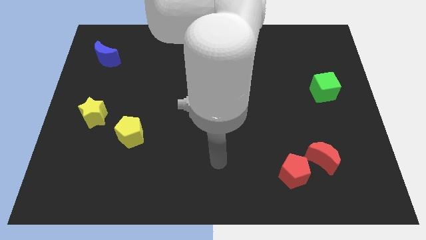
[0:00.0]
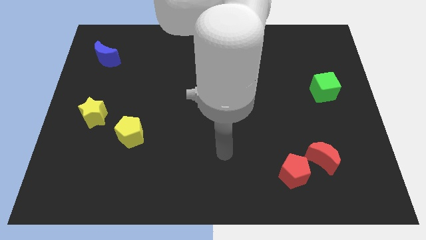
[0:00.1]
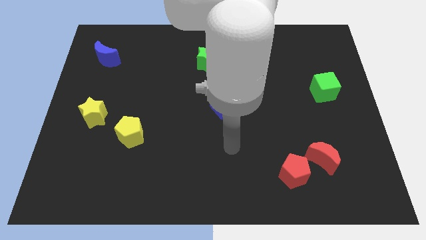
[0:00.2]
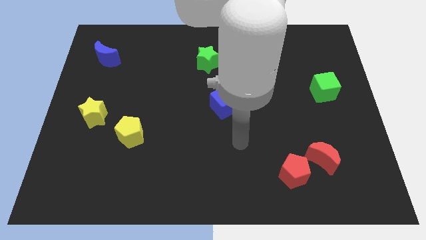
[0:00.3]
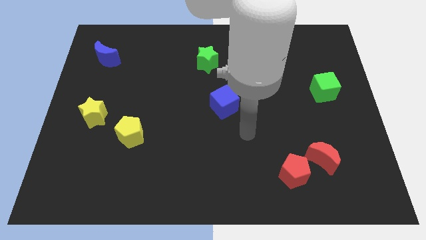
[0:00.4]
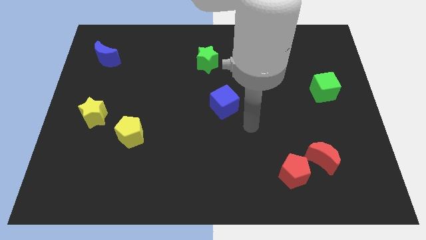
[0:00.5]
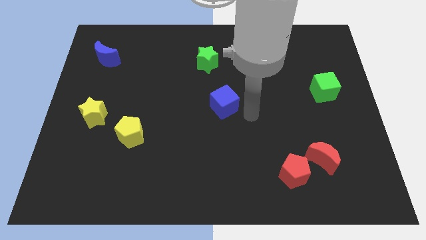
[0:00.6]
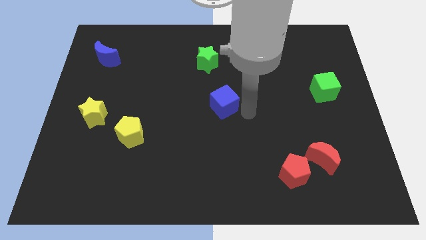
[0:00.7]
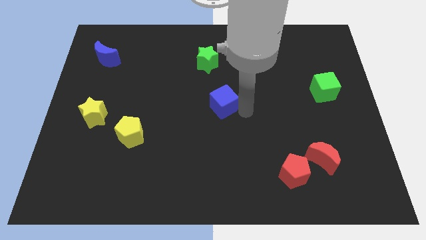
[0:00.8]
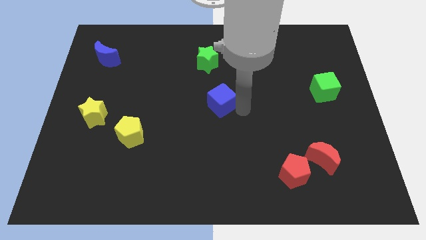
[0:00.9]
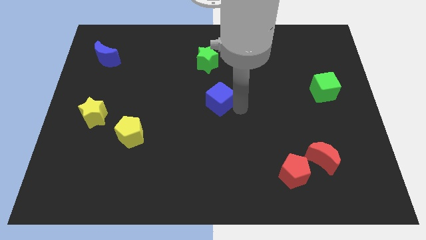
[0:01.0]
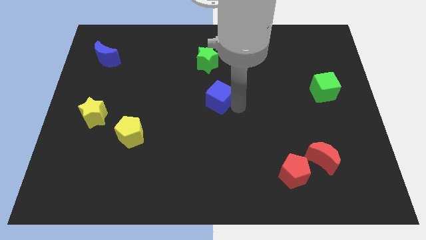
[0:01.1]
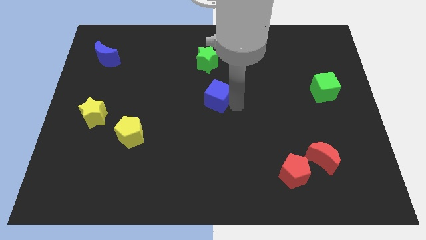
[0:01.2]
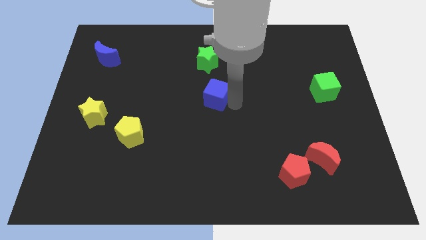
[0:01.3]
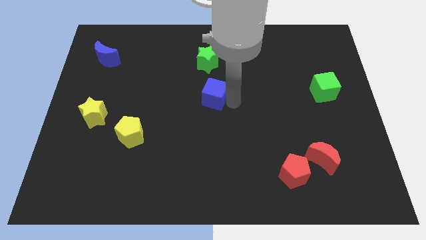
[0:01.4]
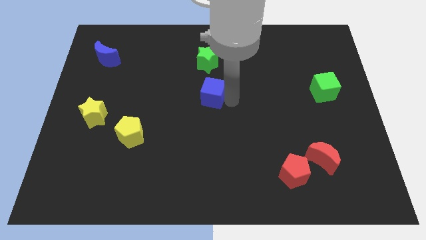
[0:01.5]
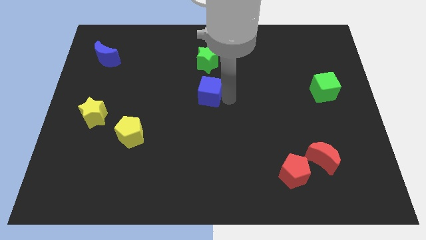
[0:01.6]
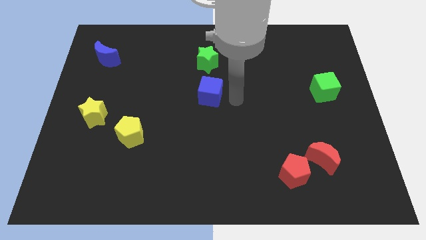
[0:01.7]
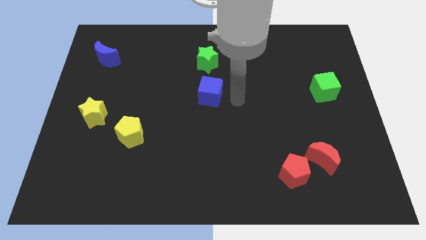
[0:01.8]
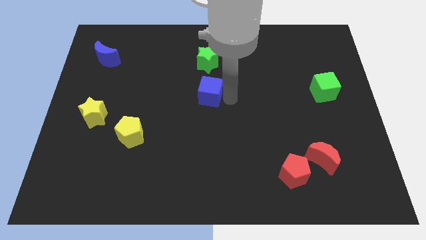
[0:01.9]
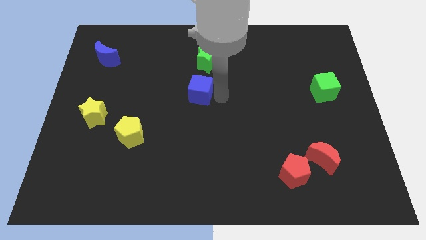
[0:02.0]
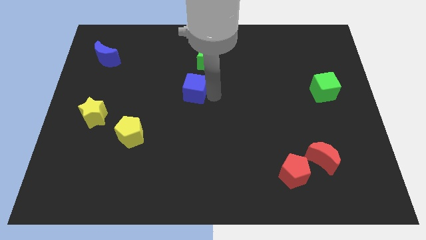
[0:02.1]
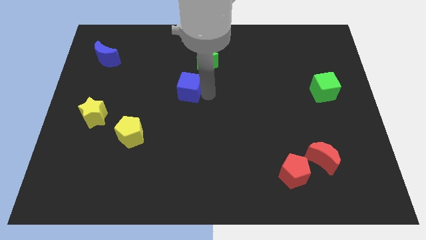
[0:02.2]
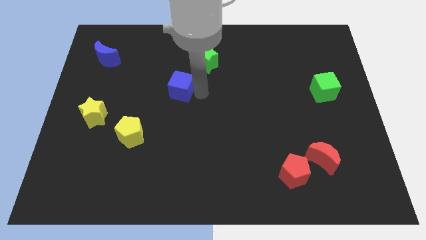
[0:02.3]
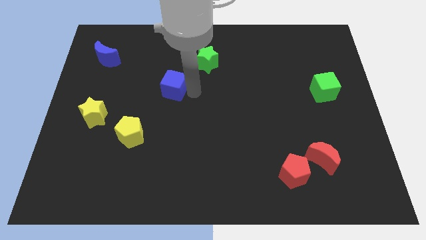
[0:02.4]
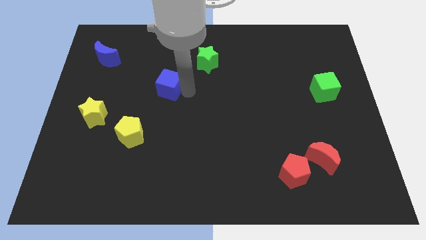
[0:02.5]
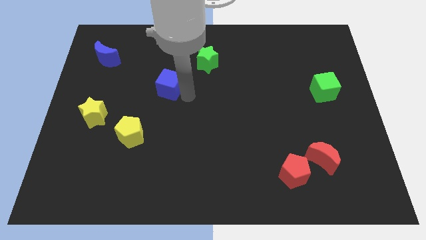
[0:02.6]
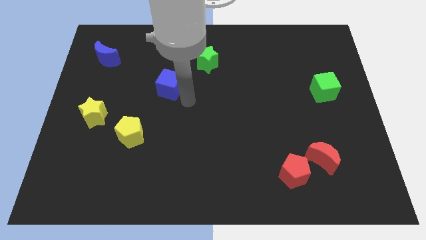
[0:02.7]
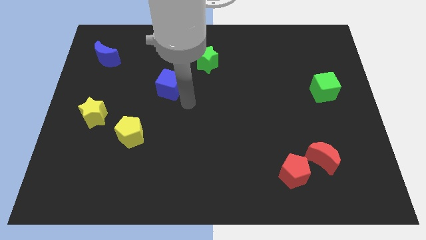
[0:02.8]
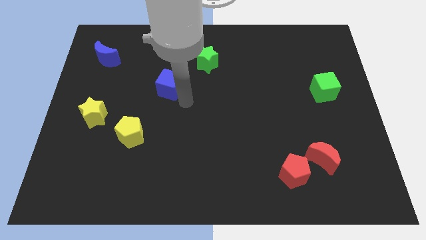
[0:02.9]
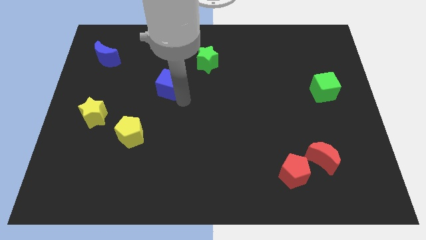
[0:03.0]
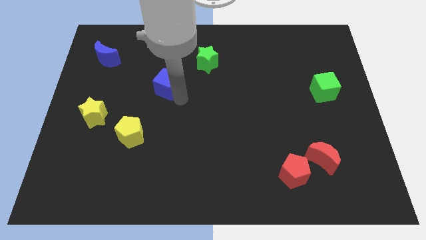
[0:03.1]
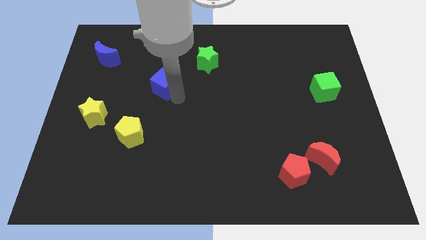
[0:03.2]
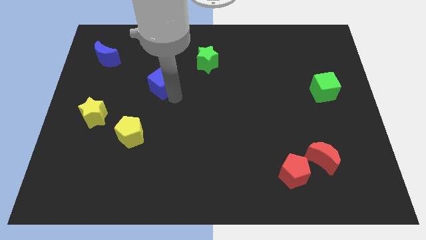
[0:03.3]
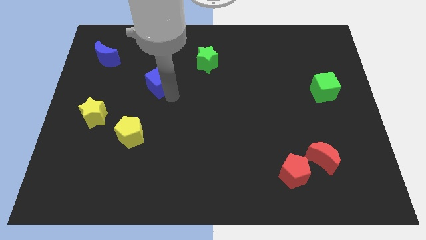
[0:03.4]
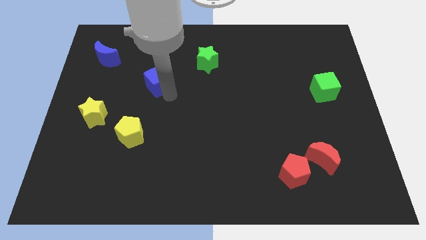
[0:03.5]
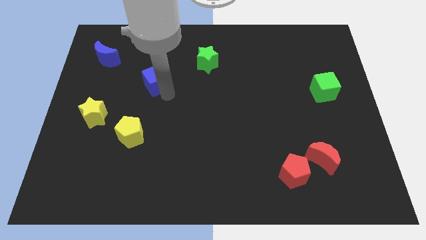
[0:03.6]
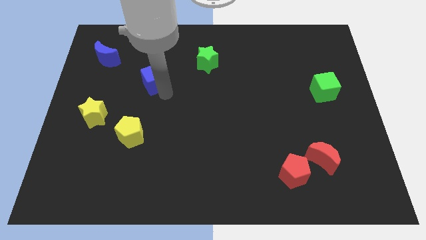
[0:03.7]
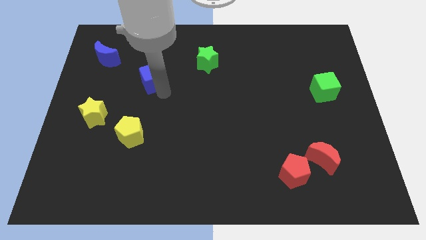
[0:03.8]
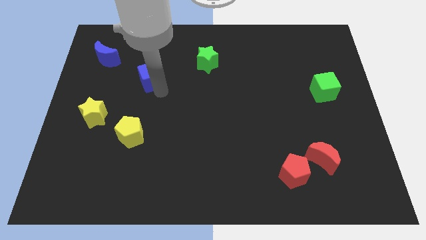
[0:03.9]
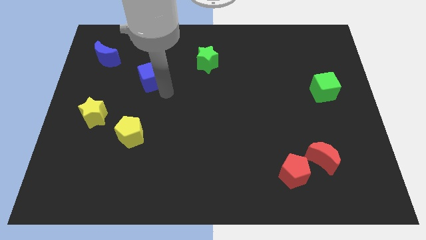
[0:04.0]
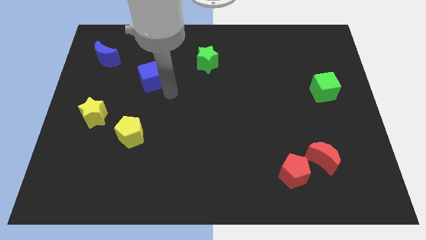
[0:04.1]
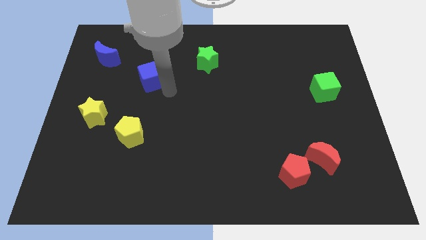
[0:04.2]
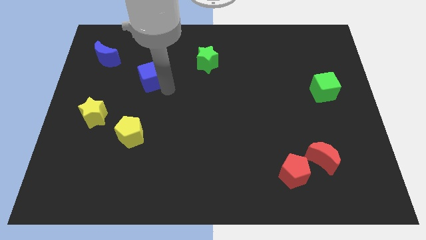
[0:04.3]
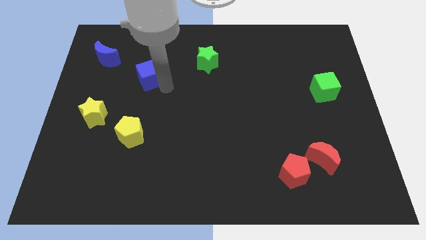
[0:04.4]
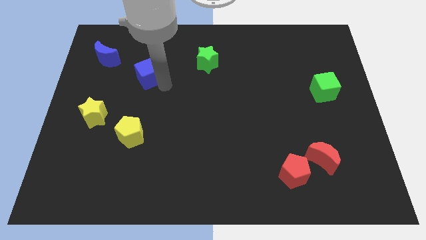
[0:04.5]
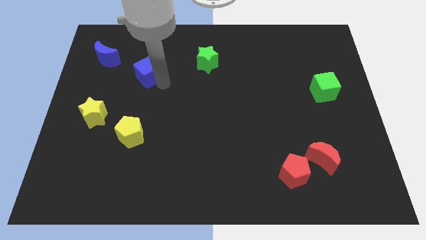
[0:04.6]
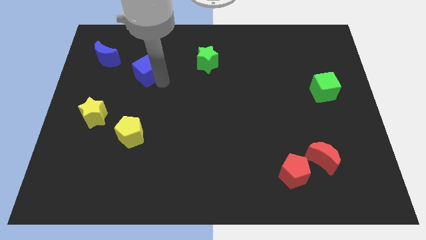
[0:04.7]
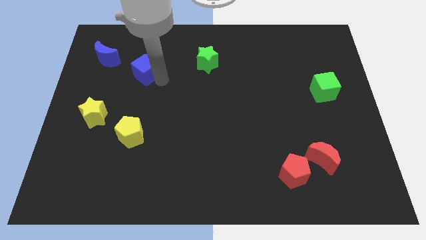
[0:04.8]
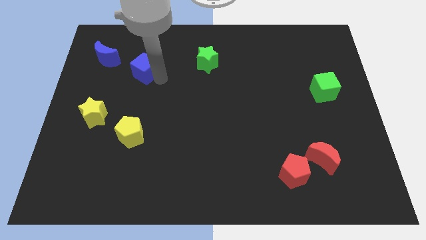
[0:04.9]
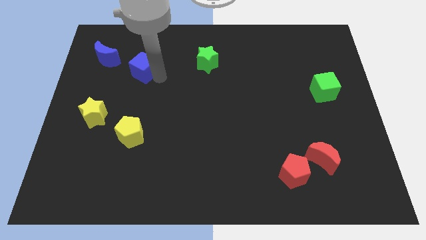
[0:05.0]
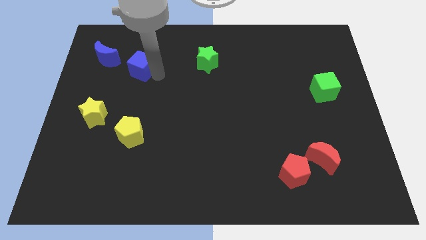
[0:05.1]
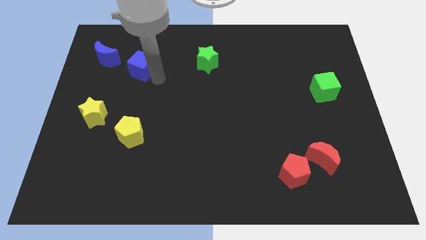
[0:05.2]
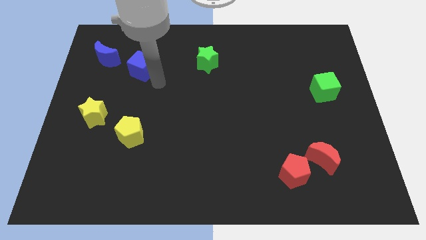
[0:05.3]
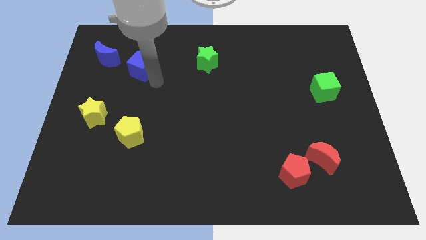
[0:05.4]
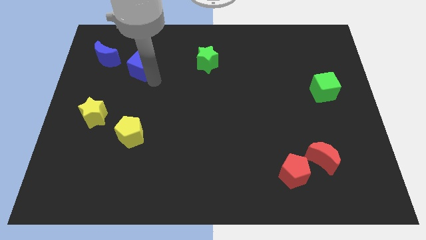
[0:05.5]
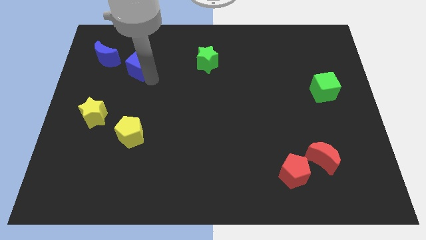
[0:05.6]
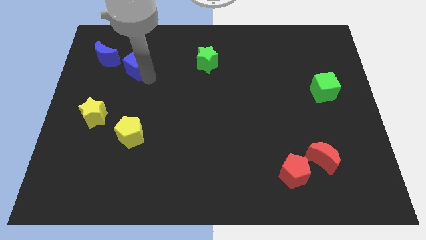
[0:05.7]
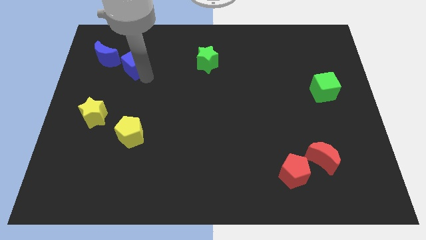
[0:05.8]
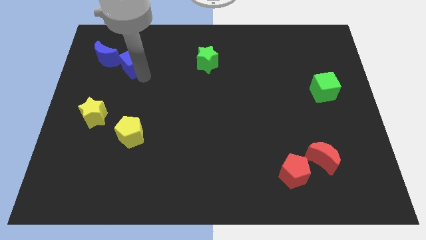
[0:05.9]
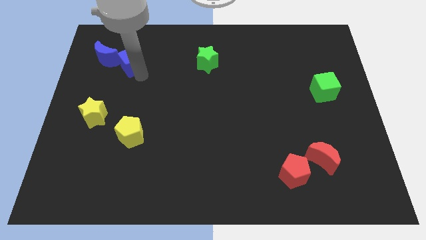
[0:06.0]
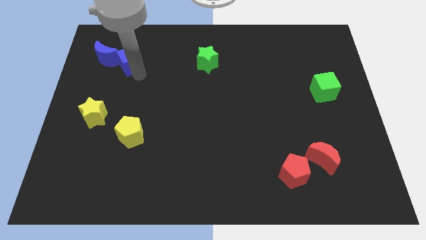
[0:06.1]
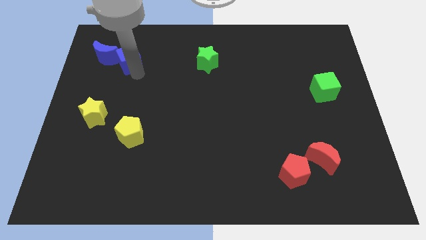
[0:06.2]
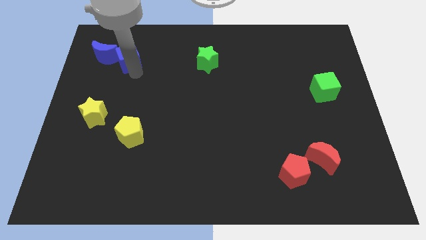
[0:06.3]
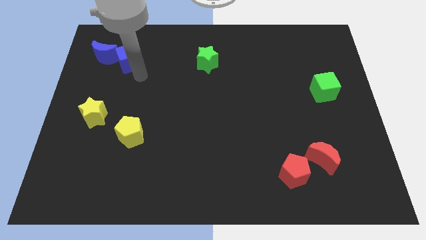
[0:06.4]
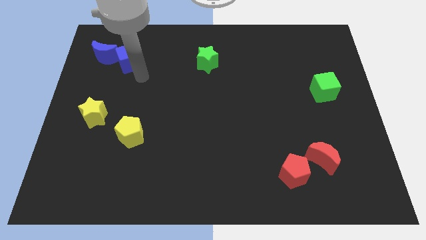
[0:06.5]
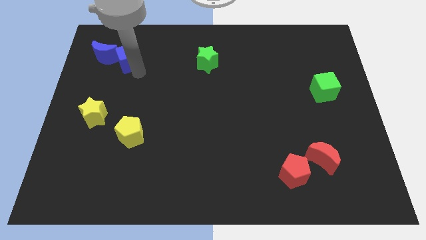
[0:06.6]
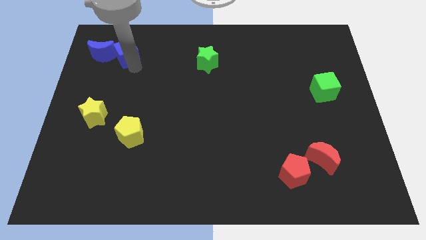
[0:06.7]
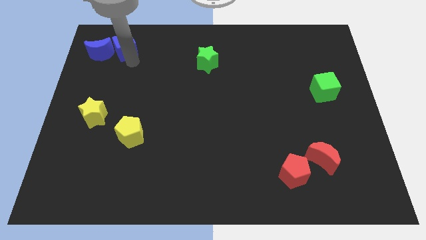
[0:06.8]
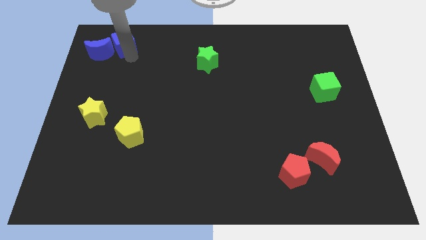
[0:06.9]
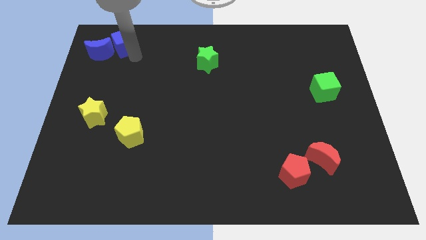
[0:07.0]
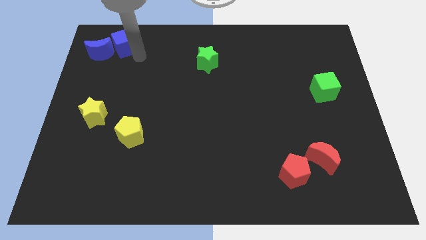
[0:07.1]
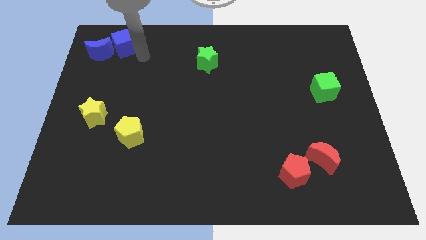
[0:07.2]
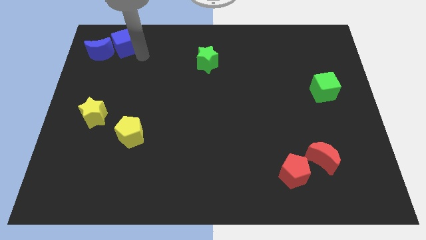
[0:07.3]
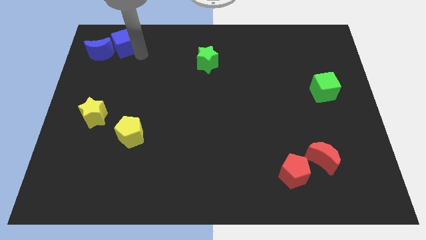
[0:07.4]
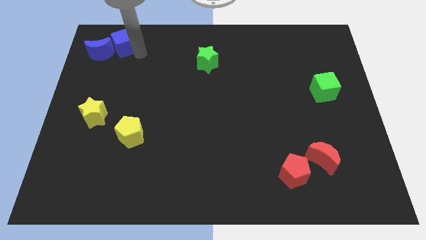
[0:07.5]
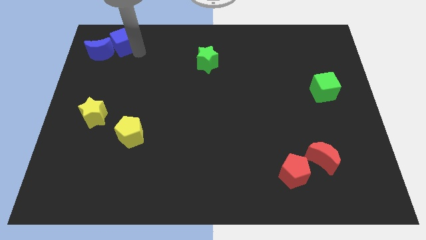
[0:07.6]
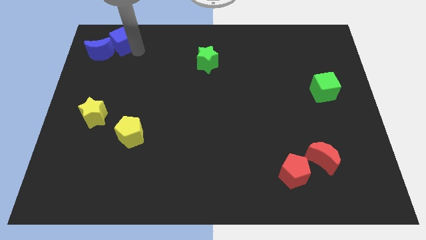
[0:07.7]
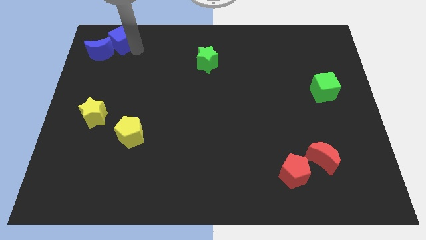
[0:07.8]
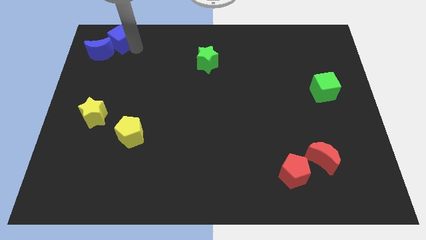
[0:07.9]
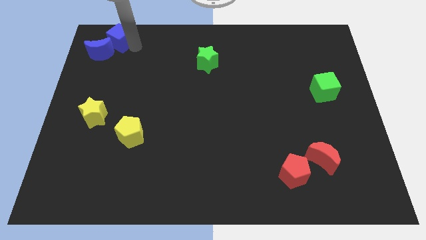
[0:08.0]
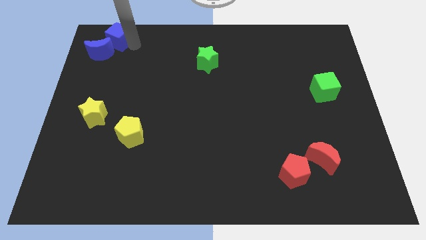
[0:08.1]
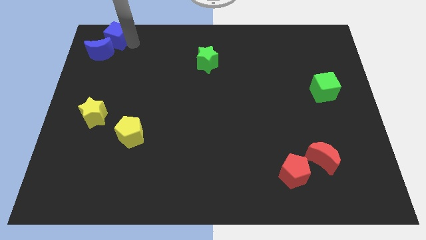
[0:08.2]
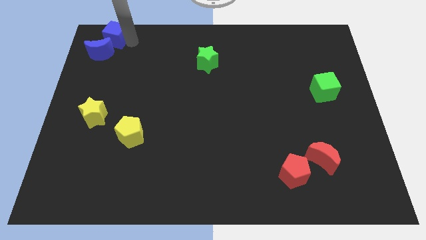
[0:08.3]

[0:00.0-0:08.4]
move the blue cube to the top left corner
